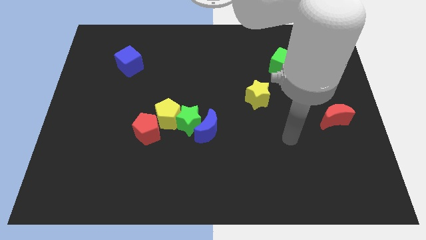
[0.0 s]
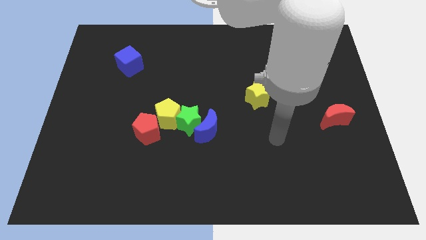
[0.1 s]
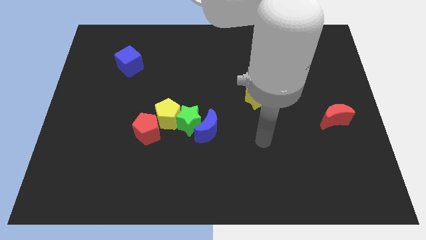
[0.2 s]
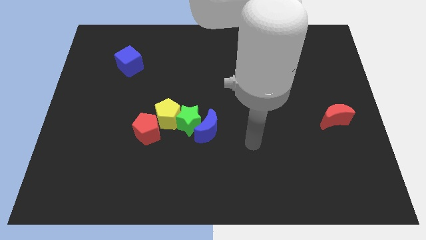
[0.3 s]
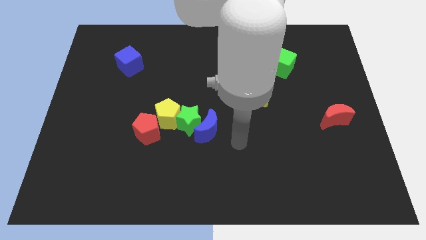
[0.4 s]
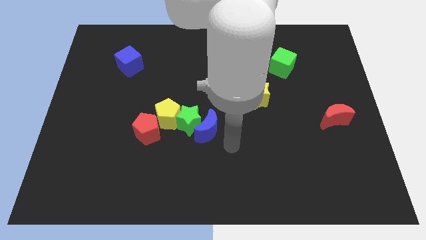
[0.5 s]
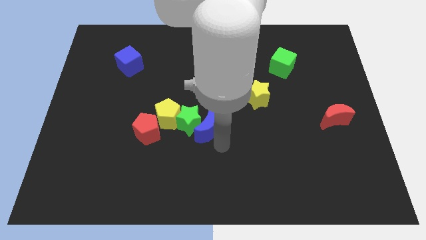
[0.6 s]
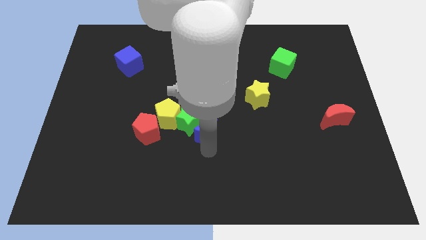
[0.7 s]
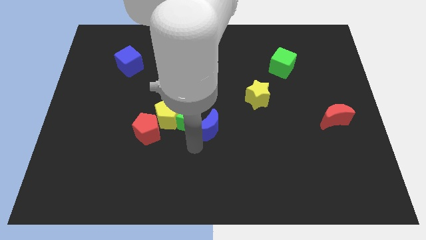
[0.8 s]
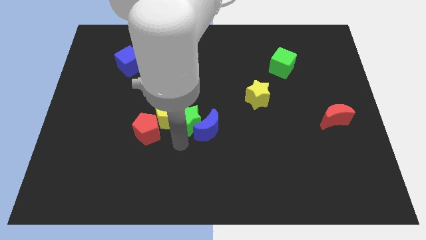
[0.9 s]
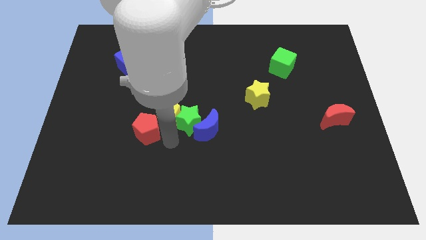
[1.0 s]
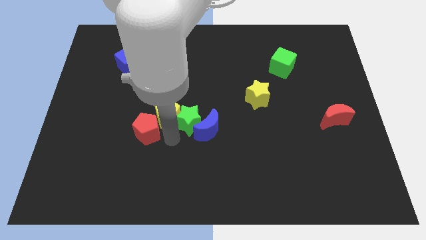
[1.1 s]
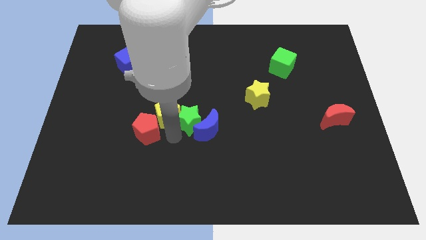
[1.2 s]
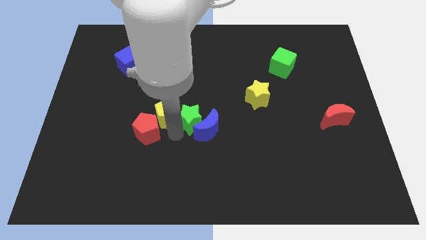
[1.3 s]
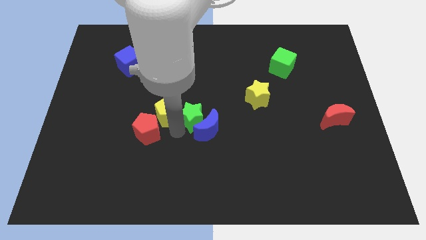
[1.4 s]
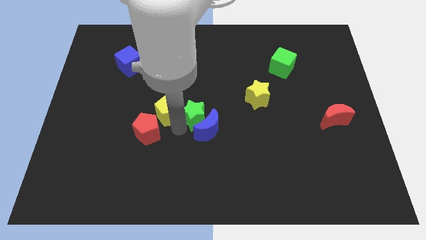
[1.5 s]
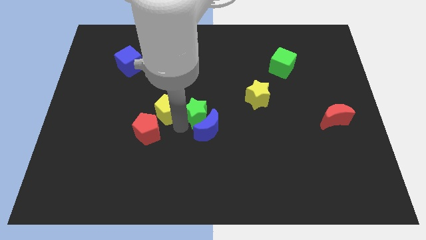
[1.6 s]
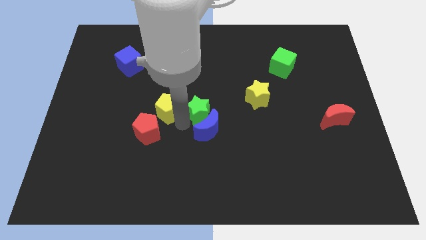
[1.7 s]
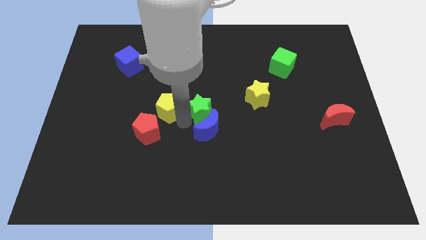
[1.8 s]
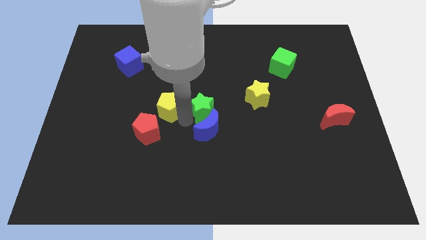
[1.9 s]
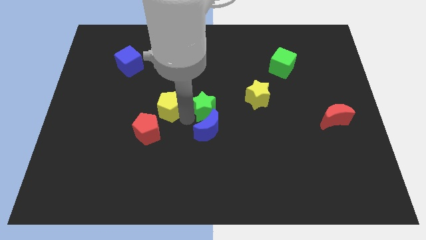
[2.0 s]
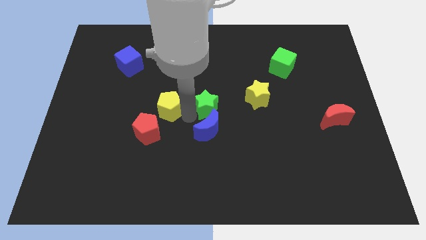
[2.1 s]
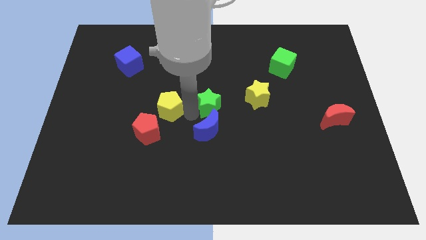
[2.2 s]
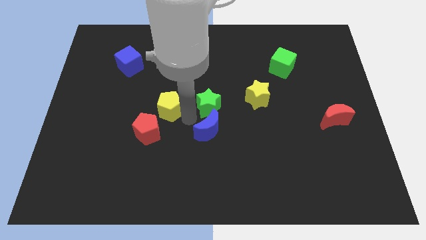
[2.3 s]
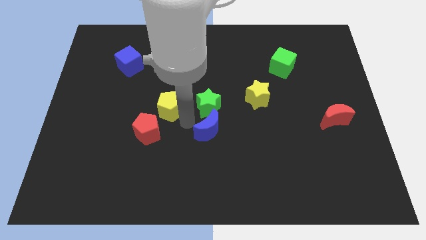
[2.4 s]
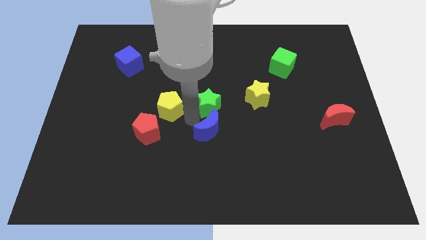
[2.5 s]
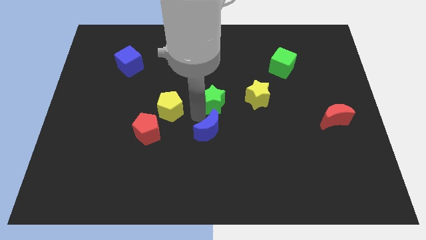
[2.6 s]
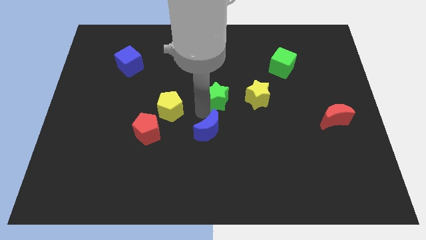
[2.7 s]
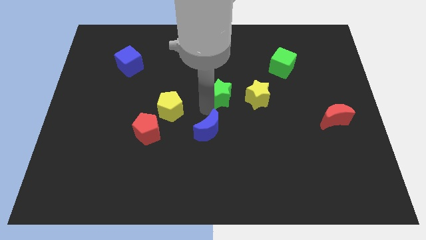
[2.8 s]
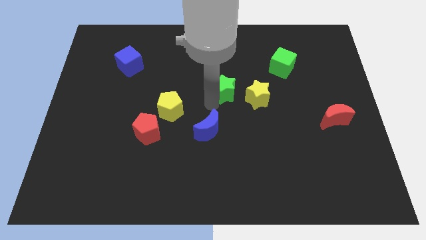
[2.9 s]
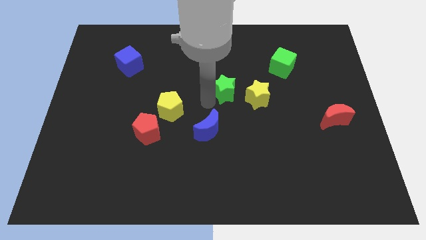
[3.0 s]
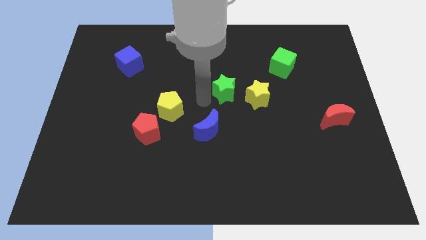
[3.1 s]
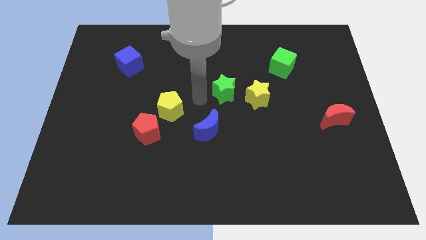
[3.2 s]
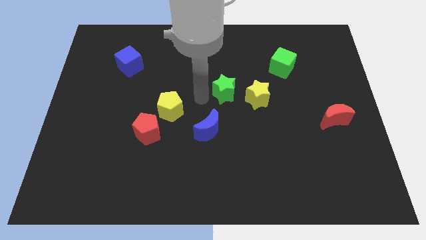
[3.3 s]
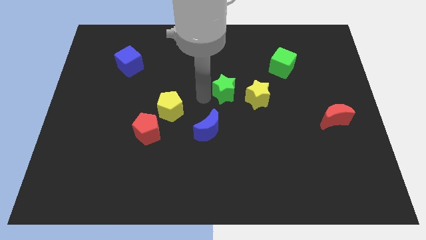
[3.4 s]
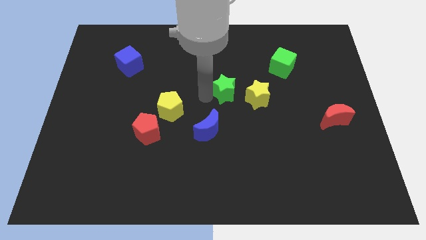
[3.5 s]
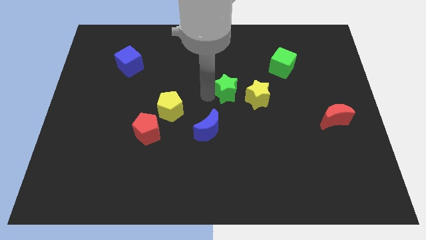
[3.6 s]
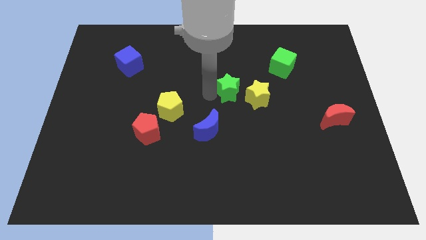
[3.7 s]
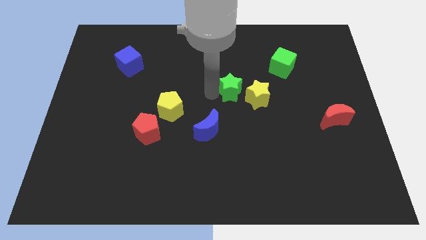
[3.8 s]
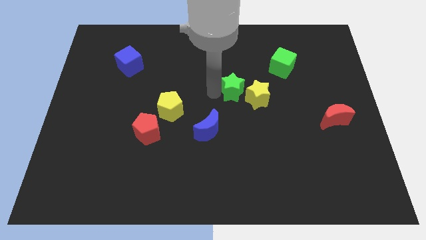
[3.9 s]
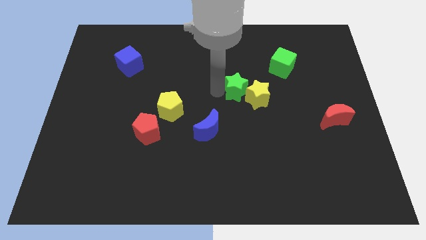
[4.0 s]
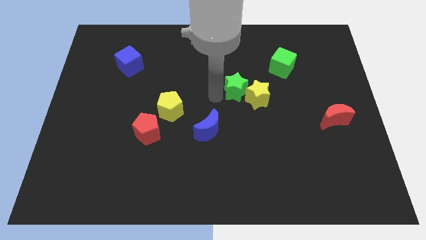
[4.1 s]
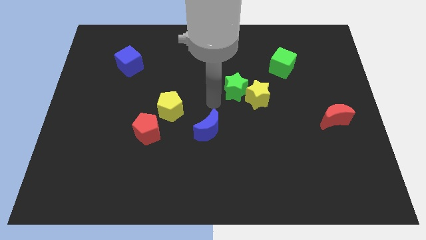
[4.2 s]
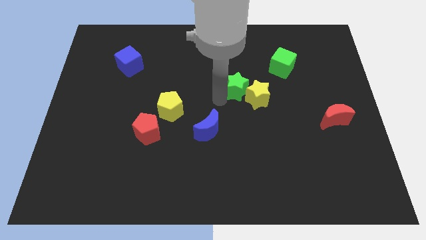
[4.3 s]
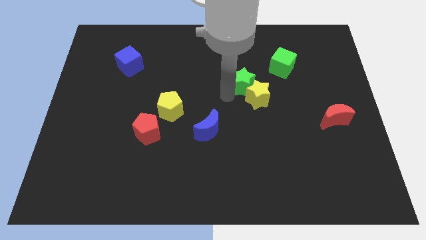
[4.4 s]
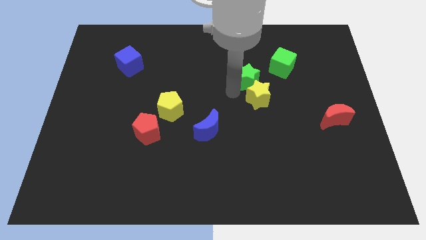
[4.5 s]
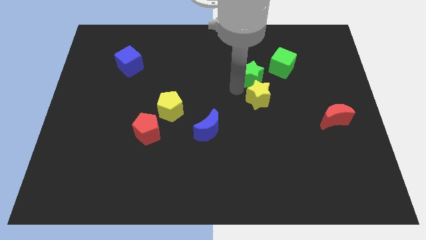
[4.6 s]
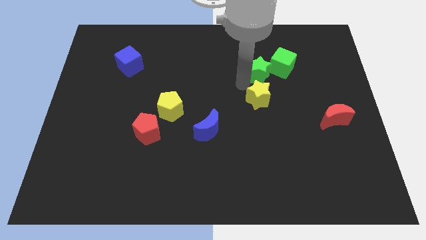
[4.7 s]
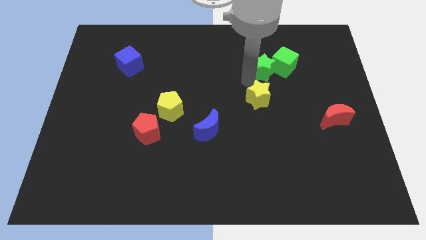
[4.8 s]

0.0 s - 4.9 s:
put the green star towards the green cube

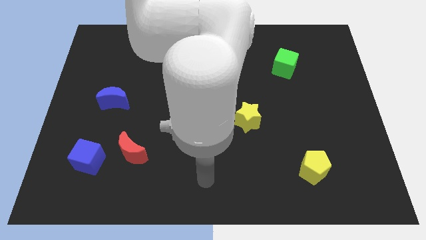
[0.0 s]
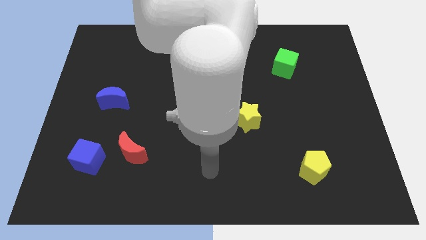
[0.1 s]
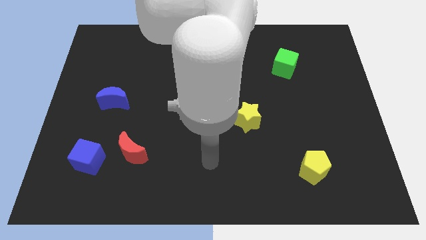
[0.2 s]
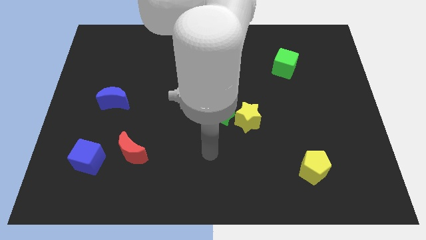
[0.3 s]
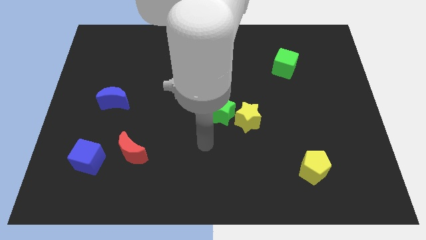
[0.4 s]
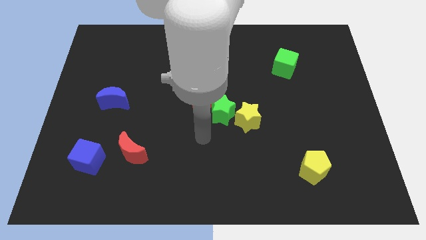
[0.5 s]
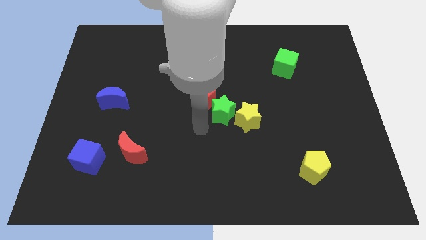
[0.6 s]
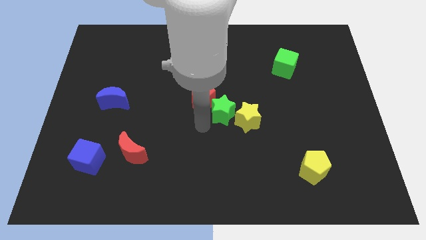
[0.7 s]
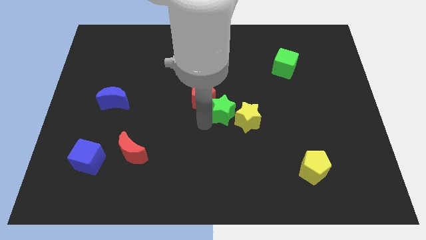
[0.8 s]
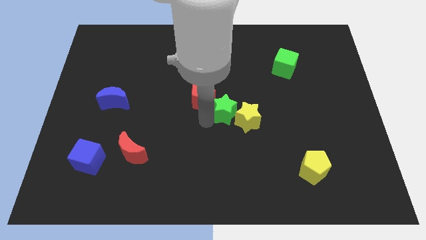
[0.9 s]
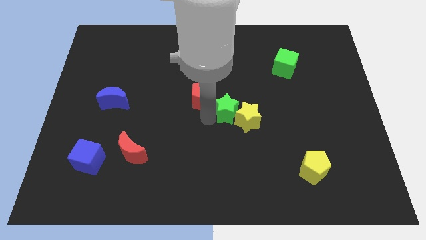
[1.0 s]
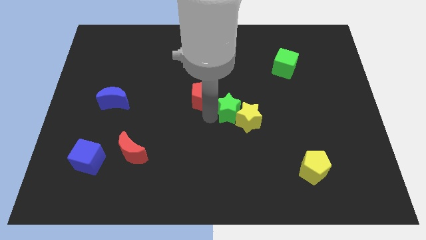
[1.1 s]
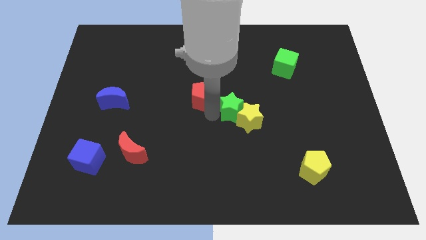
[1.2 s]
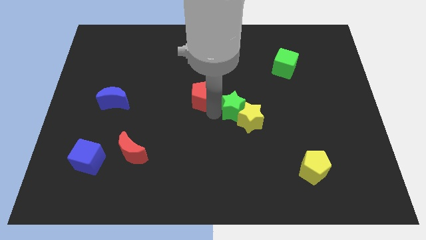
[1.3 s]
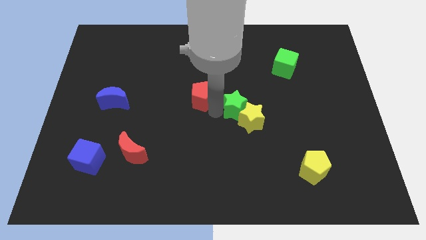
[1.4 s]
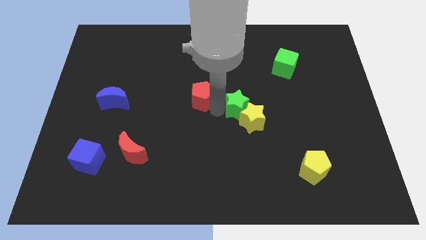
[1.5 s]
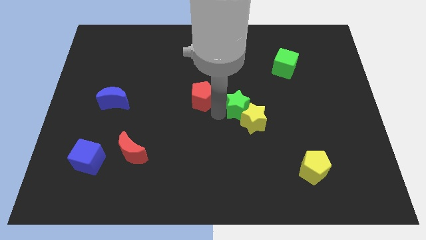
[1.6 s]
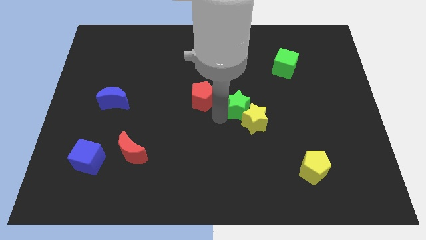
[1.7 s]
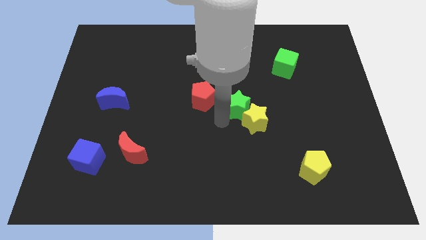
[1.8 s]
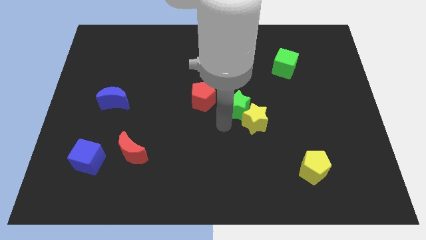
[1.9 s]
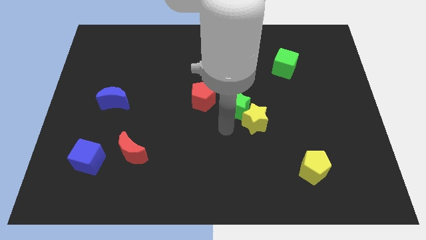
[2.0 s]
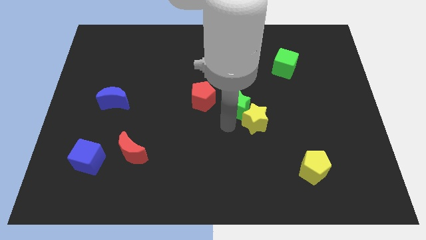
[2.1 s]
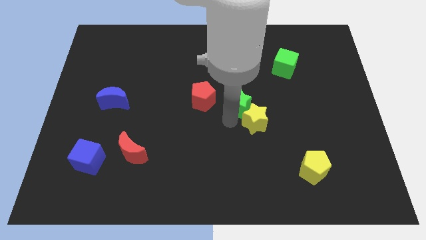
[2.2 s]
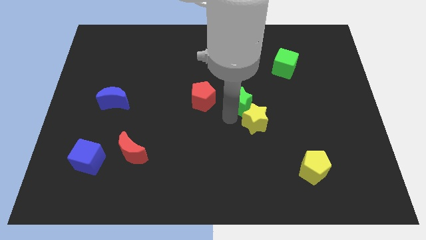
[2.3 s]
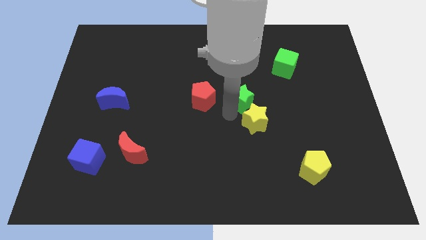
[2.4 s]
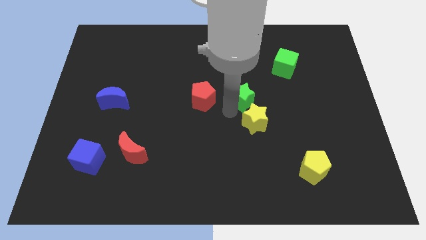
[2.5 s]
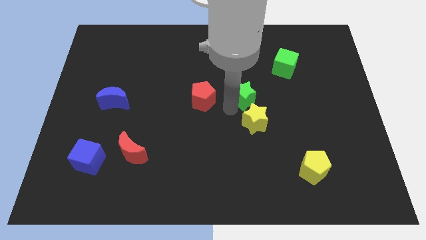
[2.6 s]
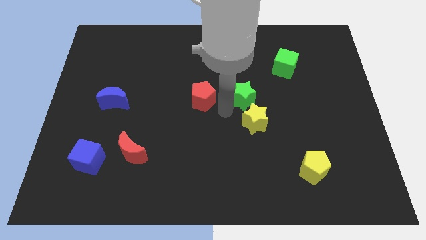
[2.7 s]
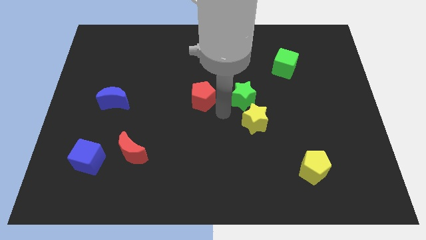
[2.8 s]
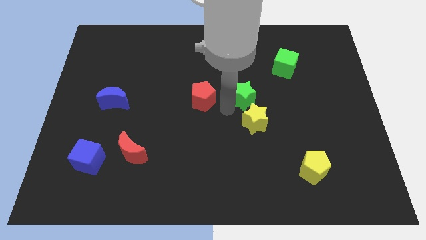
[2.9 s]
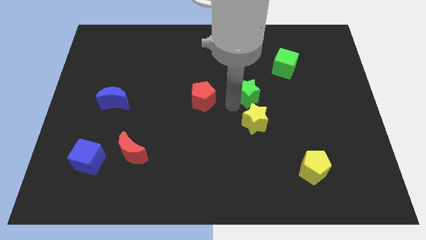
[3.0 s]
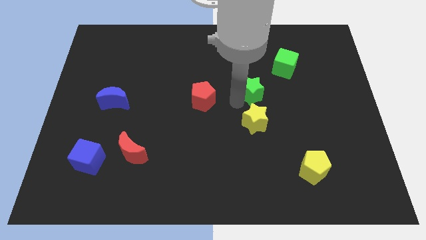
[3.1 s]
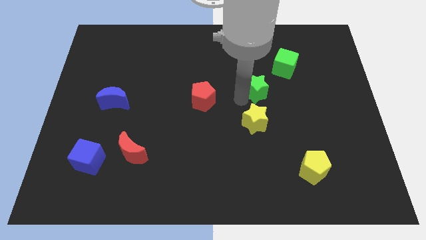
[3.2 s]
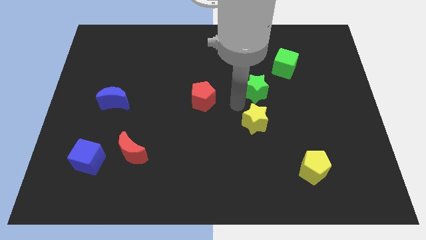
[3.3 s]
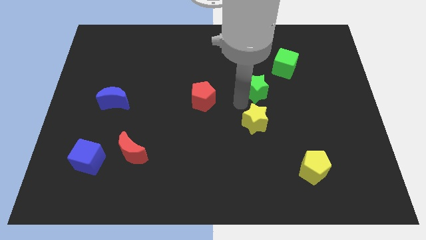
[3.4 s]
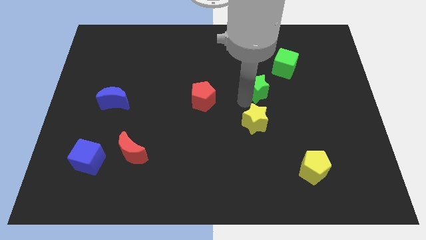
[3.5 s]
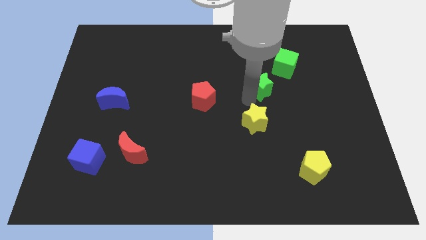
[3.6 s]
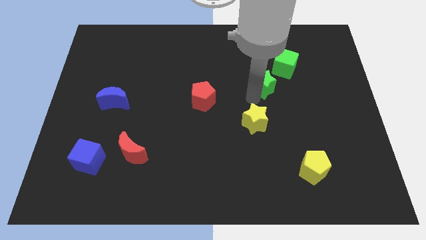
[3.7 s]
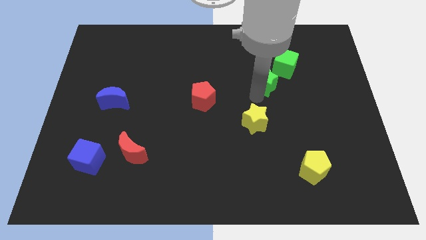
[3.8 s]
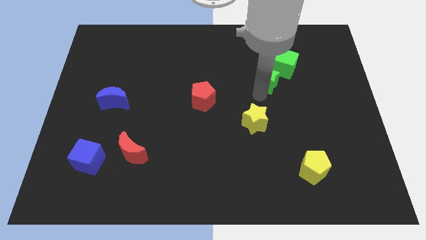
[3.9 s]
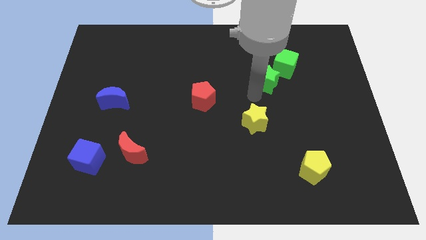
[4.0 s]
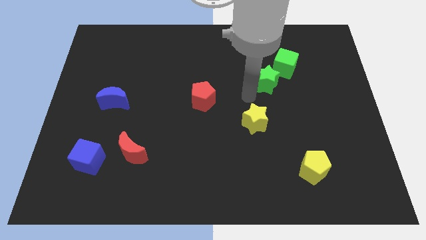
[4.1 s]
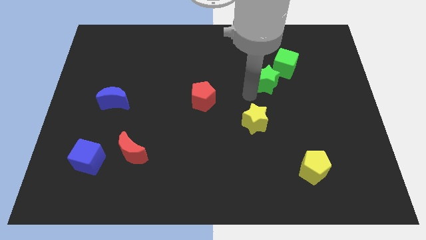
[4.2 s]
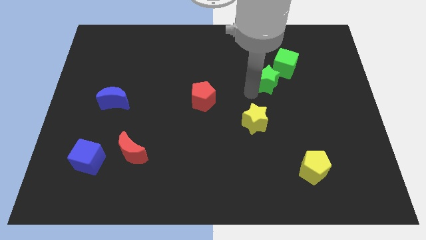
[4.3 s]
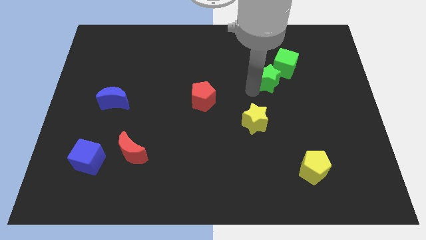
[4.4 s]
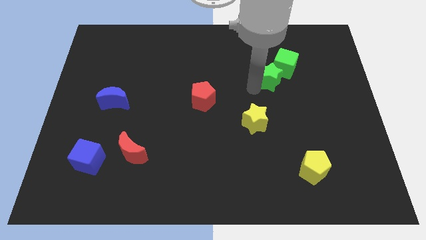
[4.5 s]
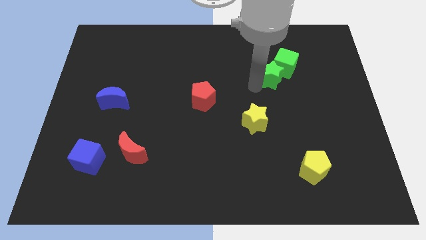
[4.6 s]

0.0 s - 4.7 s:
move the green star towards the green cube
